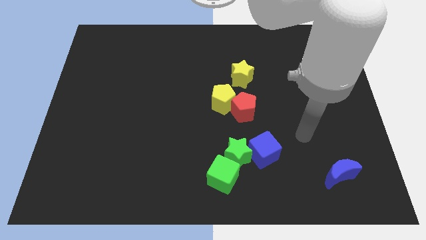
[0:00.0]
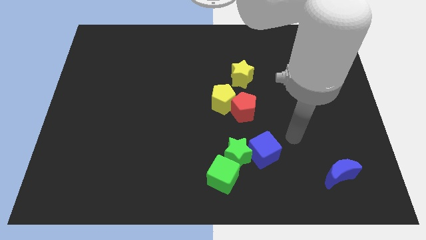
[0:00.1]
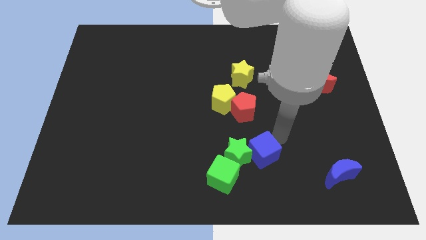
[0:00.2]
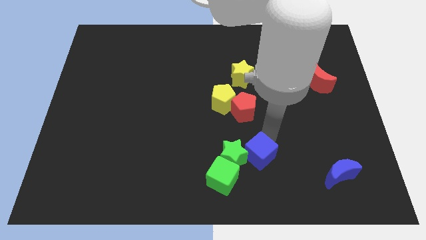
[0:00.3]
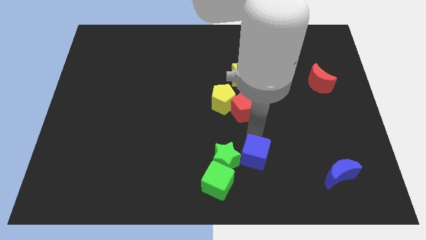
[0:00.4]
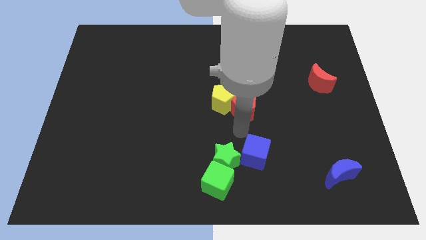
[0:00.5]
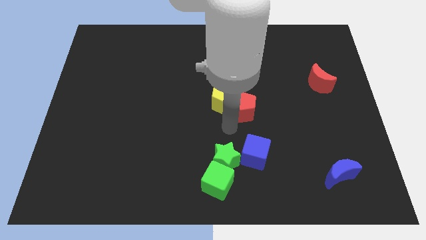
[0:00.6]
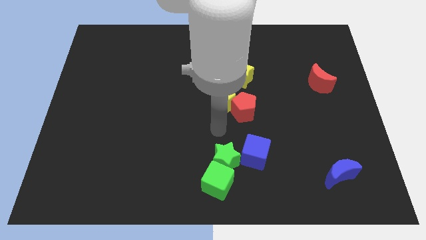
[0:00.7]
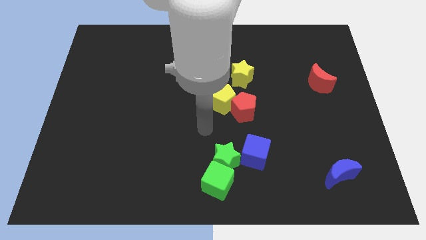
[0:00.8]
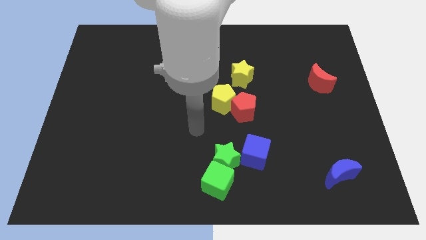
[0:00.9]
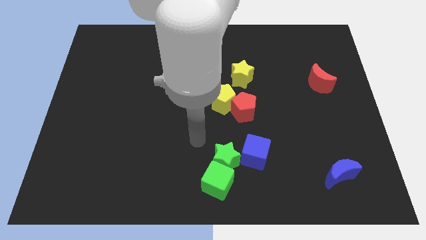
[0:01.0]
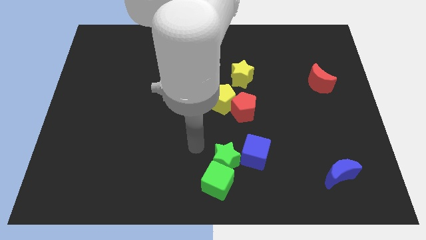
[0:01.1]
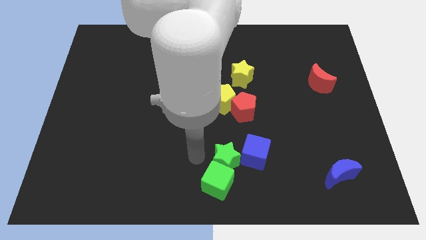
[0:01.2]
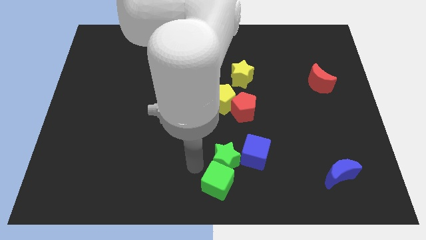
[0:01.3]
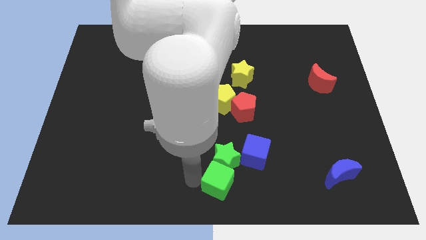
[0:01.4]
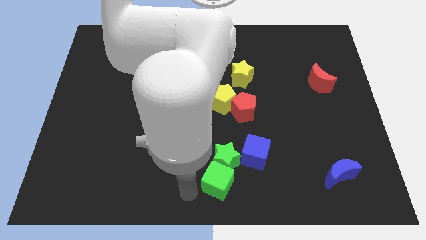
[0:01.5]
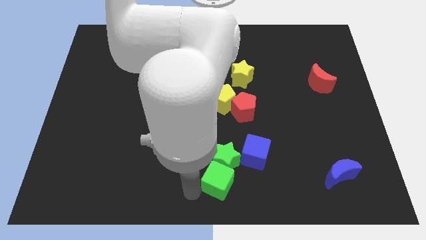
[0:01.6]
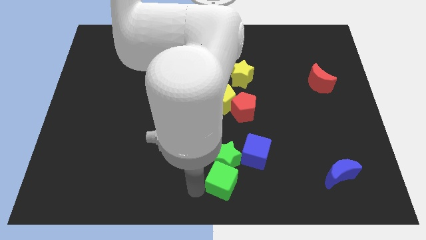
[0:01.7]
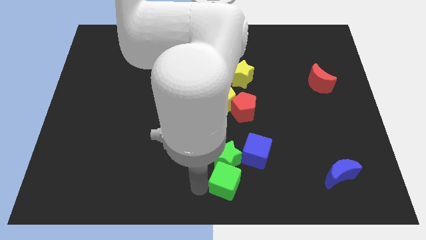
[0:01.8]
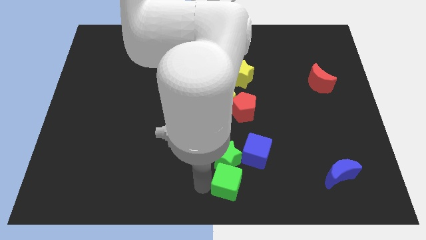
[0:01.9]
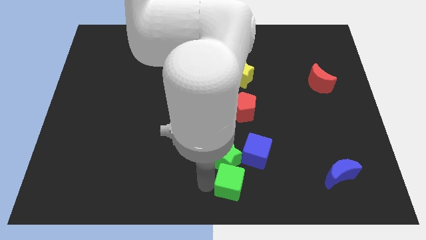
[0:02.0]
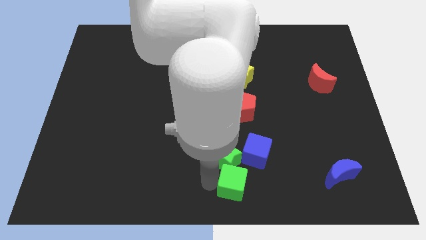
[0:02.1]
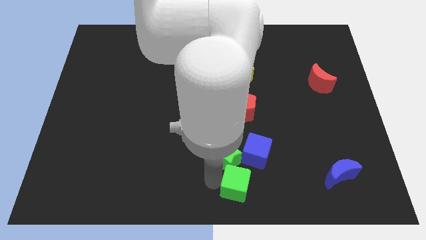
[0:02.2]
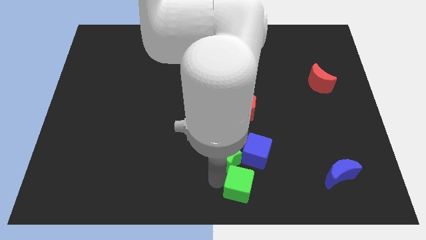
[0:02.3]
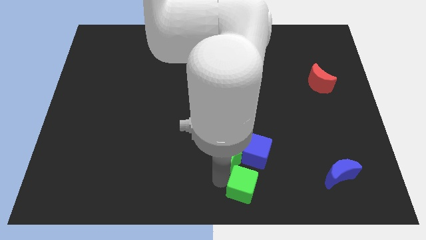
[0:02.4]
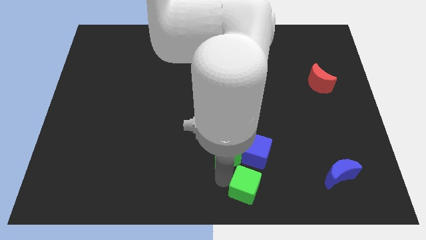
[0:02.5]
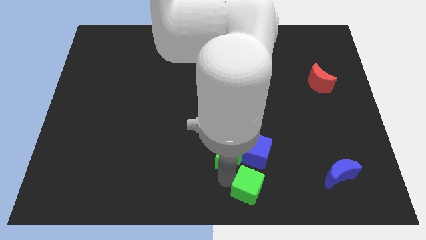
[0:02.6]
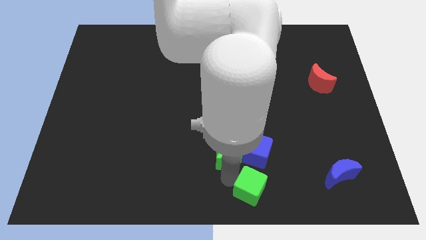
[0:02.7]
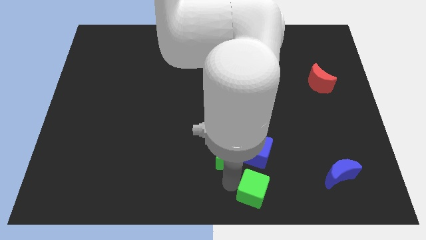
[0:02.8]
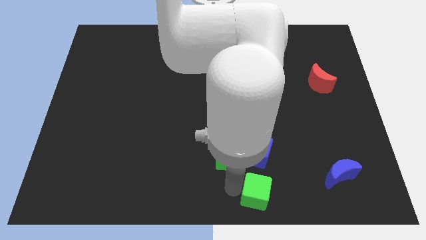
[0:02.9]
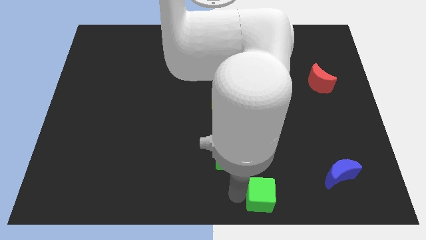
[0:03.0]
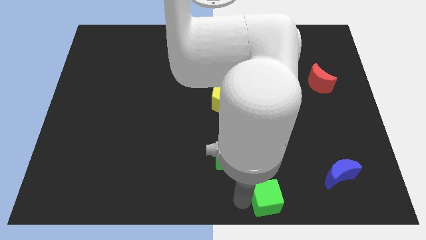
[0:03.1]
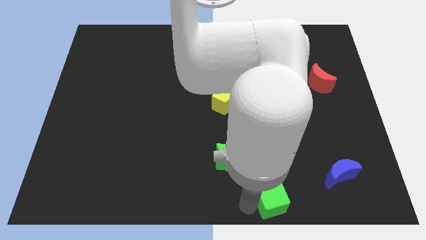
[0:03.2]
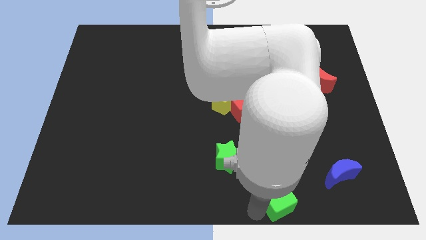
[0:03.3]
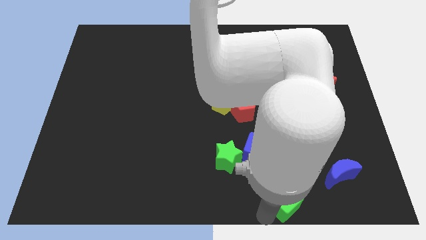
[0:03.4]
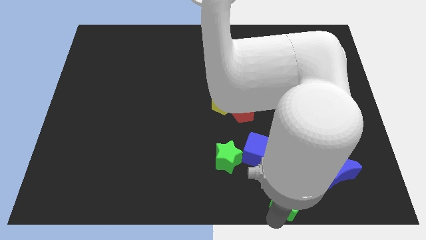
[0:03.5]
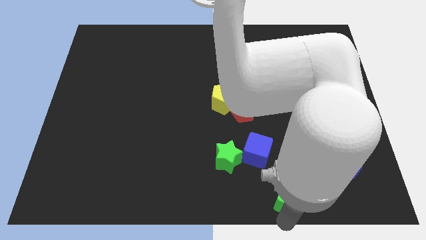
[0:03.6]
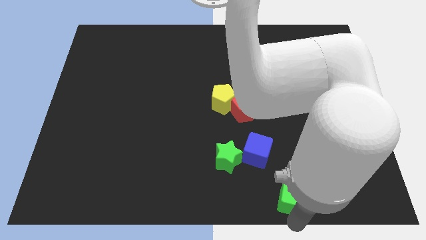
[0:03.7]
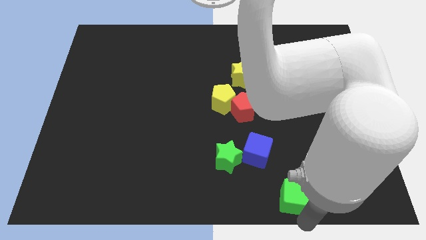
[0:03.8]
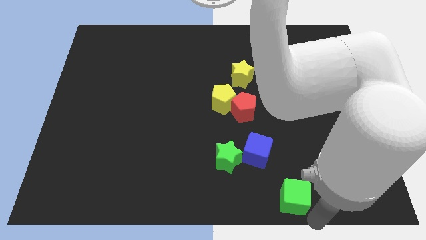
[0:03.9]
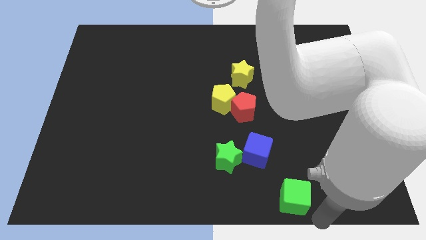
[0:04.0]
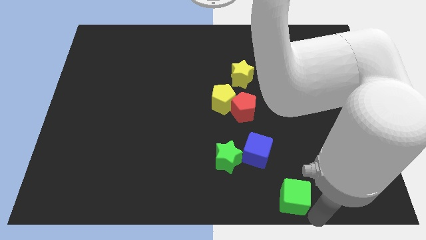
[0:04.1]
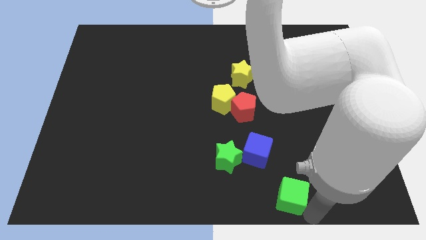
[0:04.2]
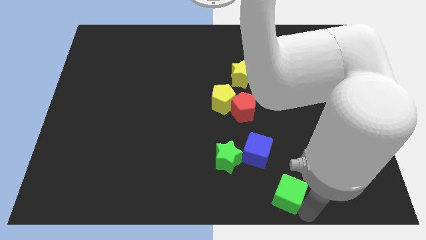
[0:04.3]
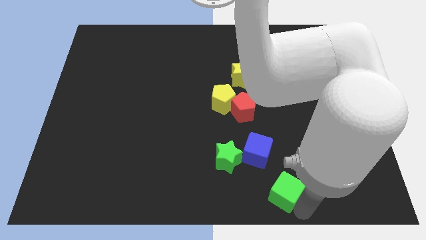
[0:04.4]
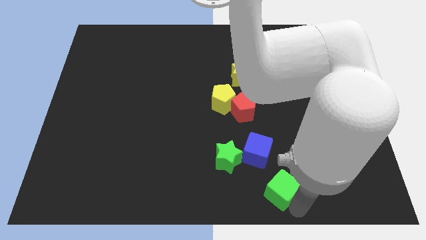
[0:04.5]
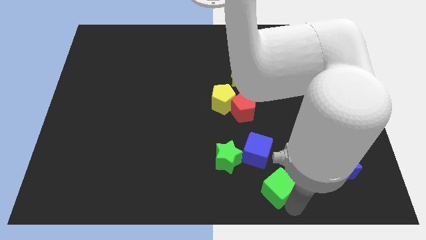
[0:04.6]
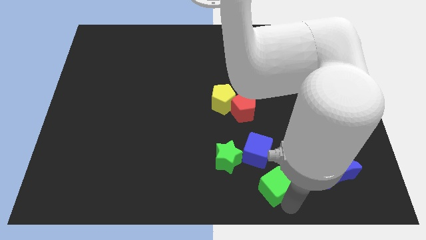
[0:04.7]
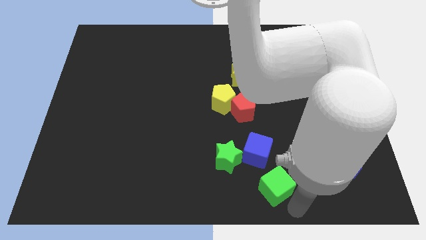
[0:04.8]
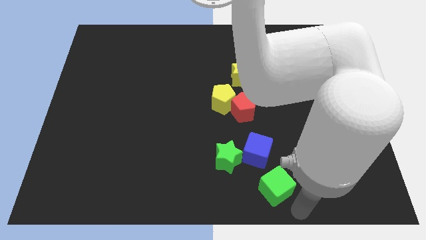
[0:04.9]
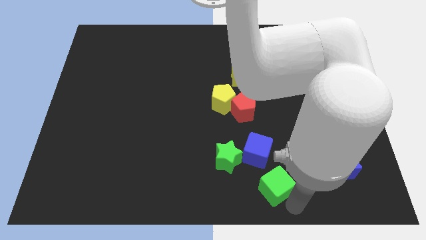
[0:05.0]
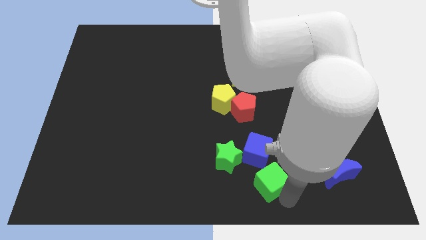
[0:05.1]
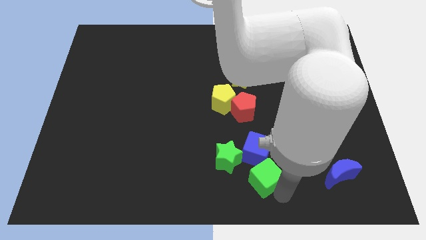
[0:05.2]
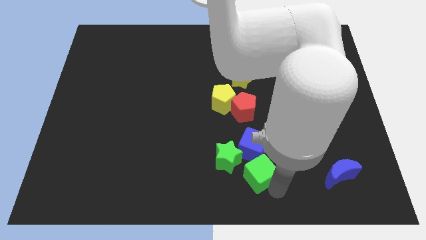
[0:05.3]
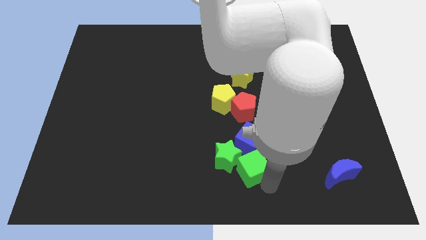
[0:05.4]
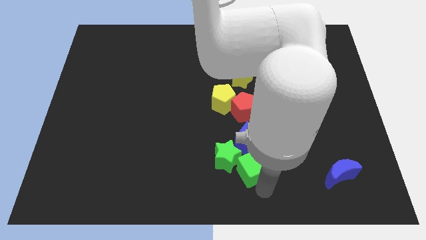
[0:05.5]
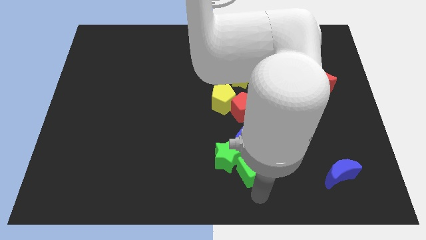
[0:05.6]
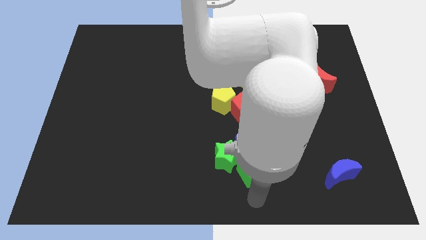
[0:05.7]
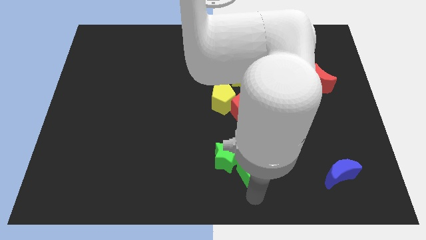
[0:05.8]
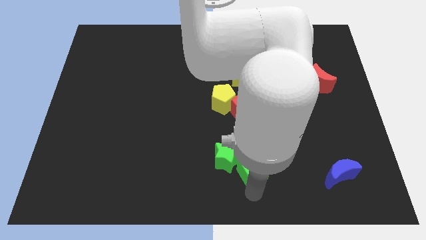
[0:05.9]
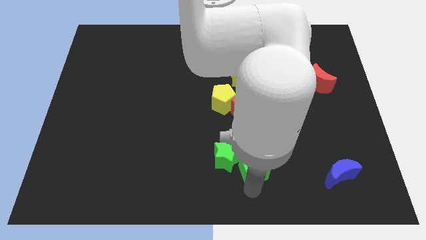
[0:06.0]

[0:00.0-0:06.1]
move the green cube towards the blue cube

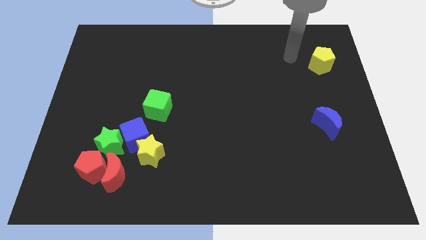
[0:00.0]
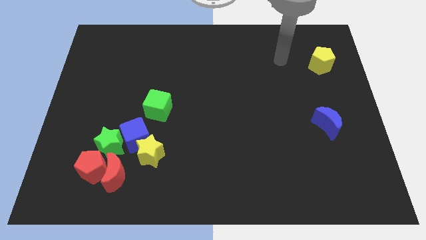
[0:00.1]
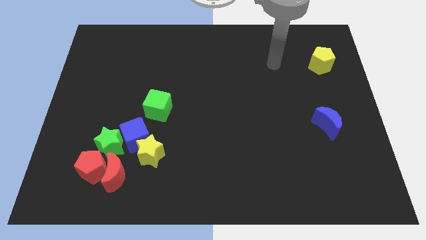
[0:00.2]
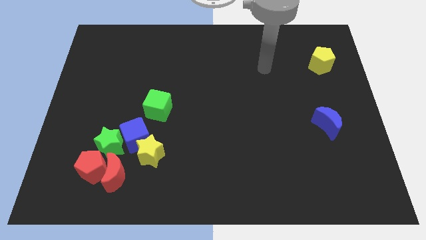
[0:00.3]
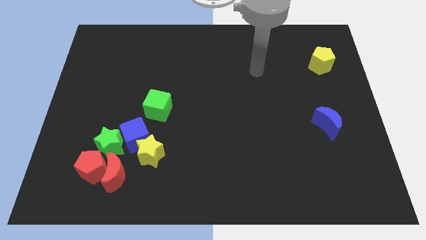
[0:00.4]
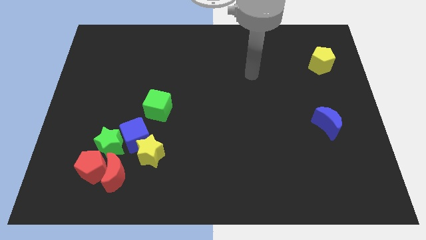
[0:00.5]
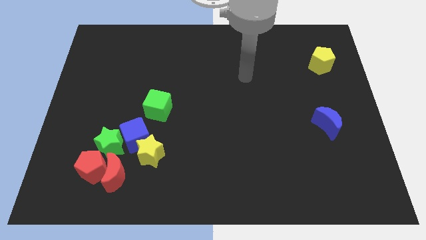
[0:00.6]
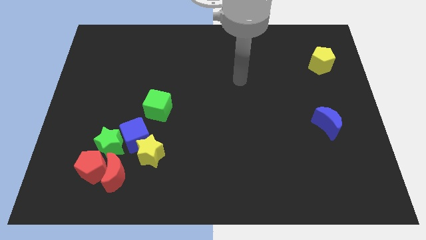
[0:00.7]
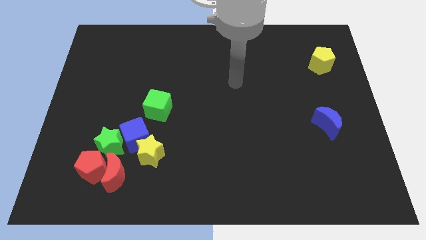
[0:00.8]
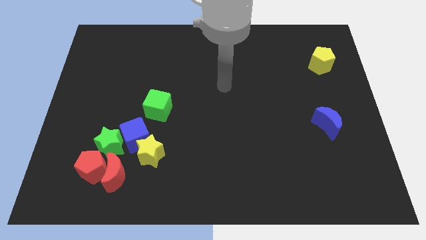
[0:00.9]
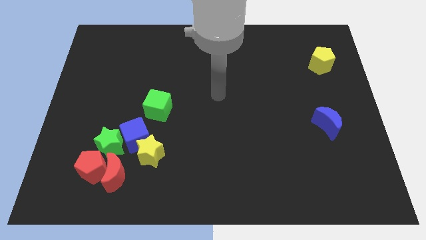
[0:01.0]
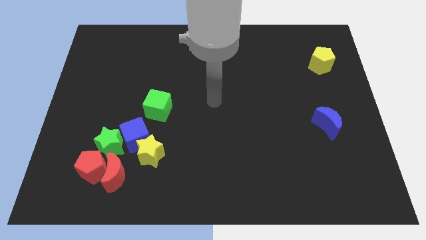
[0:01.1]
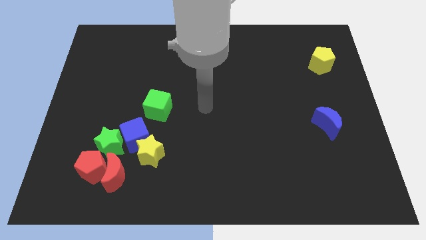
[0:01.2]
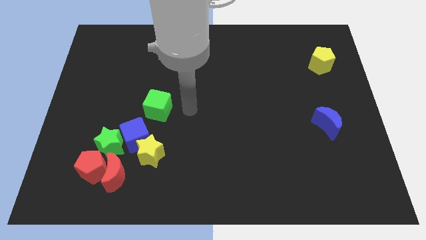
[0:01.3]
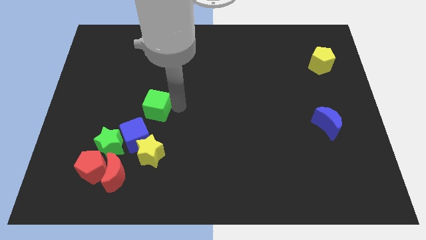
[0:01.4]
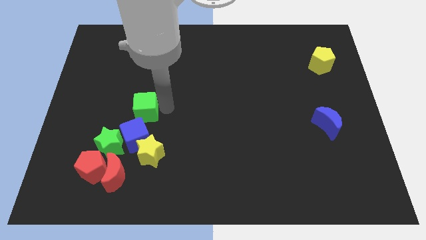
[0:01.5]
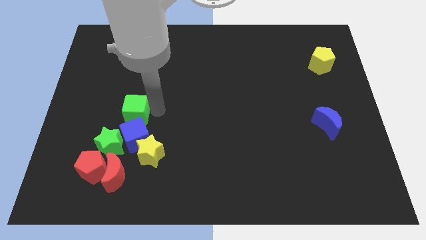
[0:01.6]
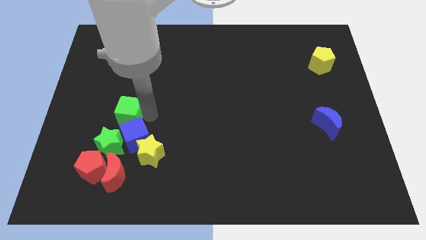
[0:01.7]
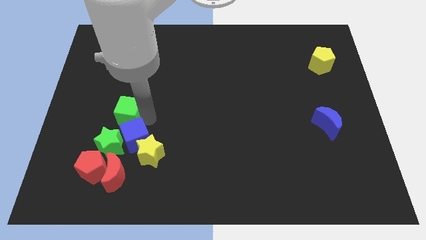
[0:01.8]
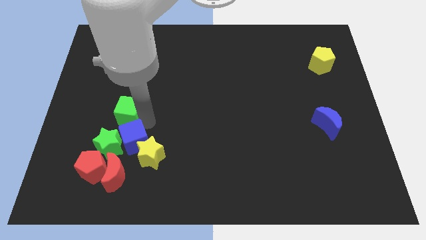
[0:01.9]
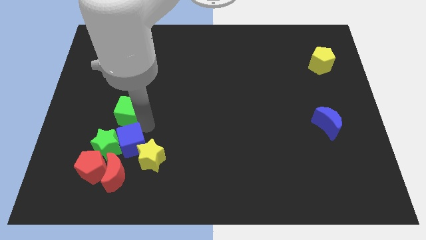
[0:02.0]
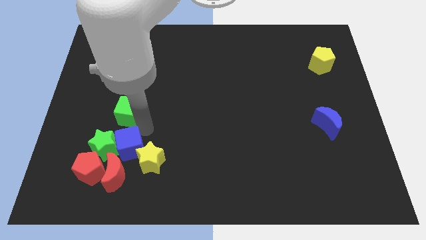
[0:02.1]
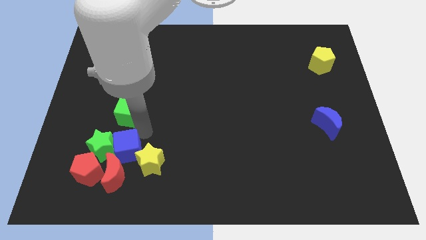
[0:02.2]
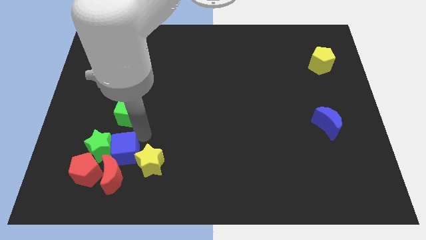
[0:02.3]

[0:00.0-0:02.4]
push the blue cube towards the red moon
